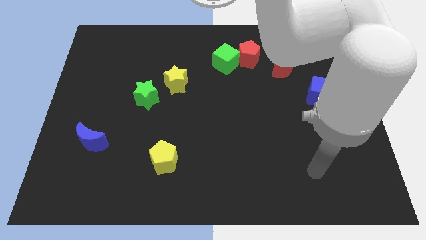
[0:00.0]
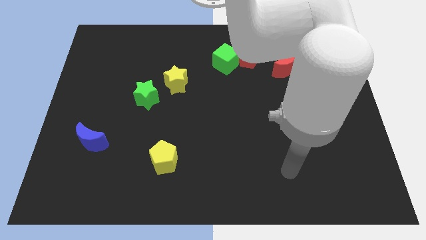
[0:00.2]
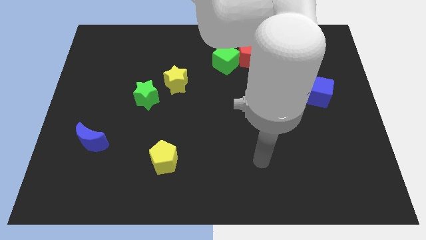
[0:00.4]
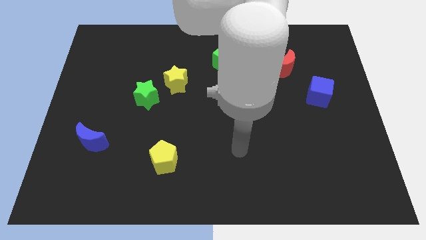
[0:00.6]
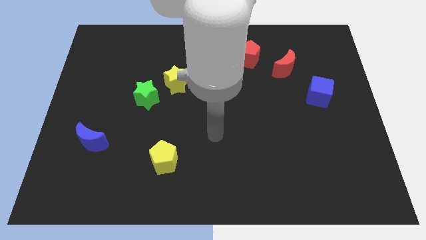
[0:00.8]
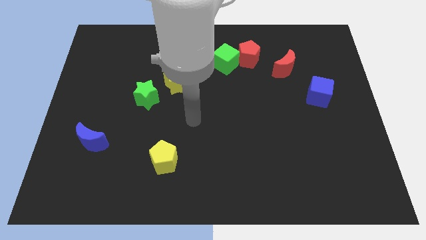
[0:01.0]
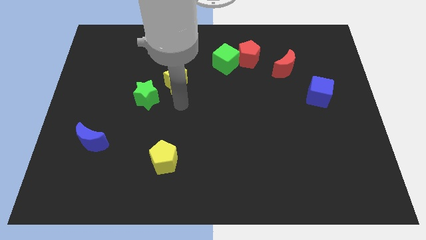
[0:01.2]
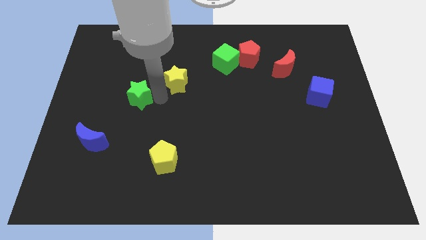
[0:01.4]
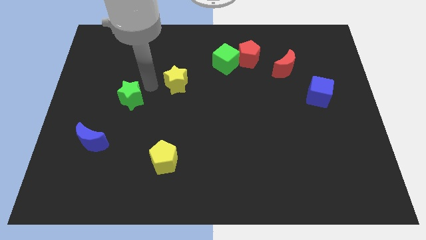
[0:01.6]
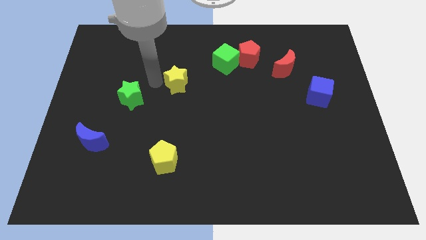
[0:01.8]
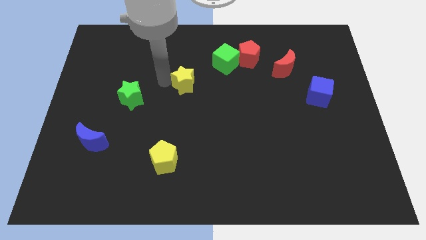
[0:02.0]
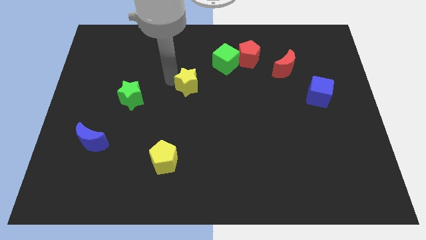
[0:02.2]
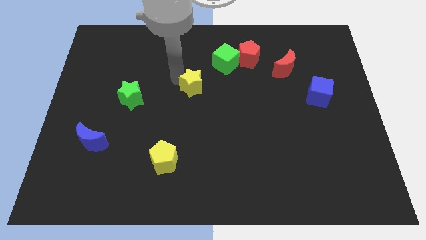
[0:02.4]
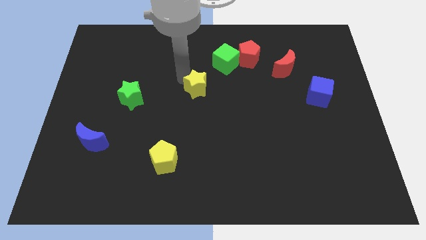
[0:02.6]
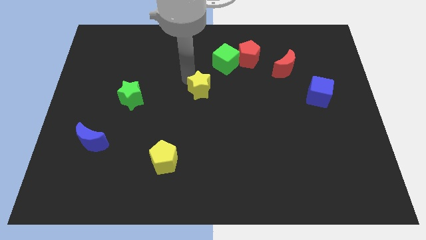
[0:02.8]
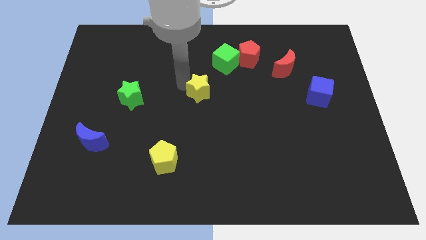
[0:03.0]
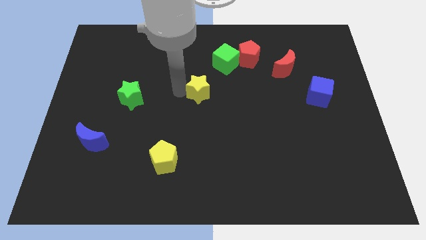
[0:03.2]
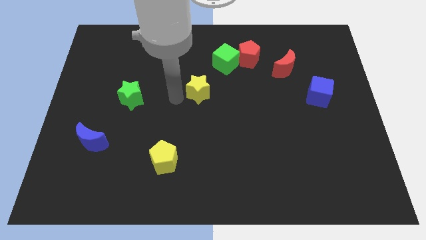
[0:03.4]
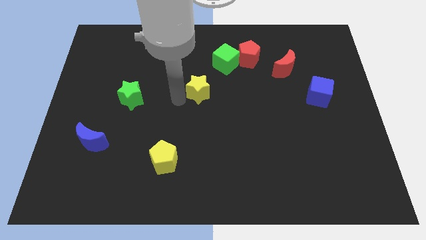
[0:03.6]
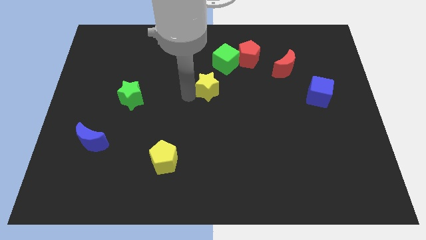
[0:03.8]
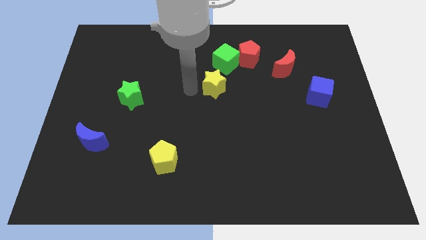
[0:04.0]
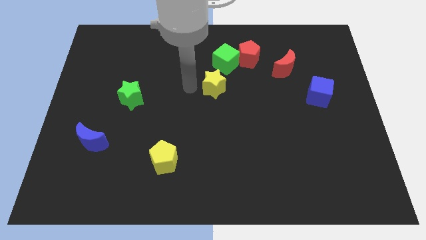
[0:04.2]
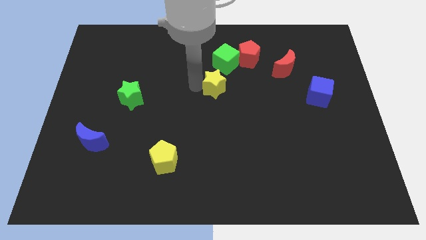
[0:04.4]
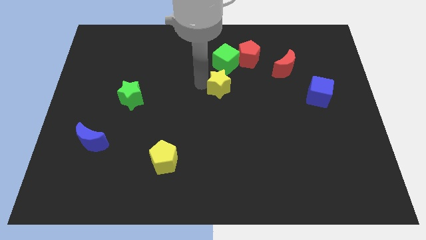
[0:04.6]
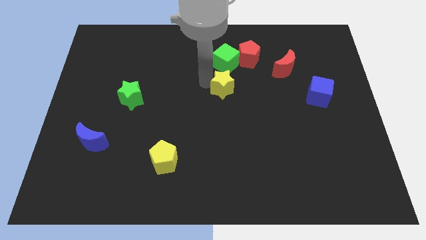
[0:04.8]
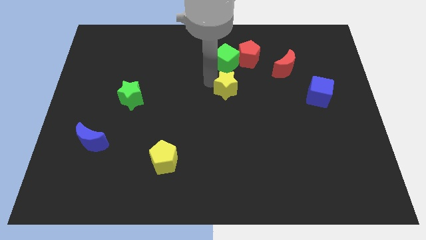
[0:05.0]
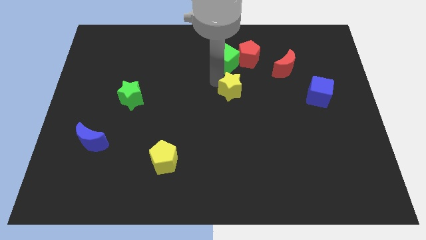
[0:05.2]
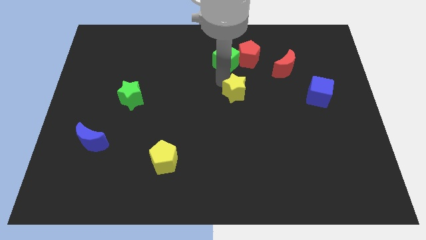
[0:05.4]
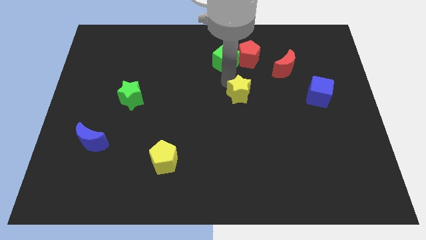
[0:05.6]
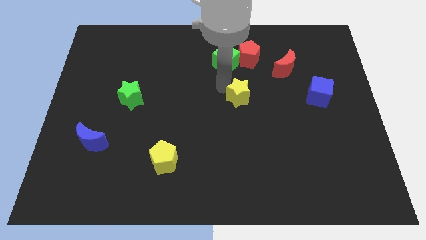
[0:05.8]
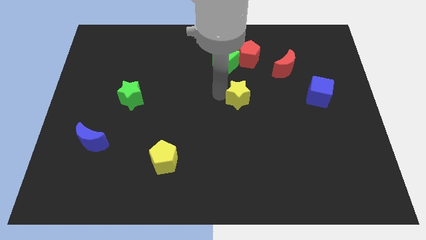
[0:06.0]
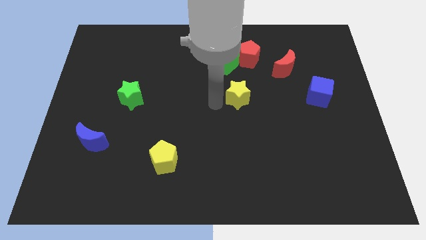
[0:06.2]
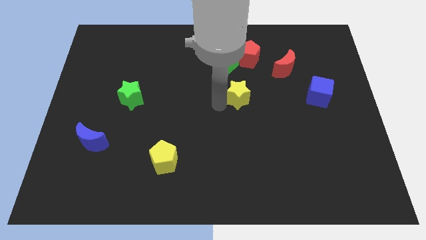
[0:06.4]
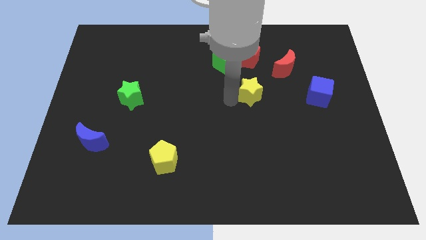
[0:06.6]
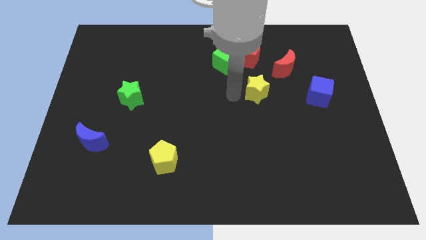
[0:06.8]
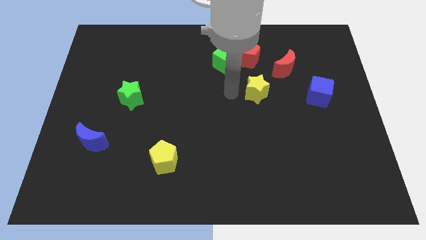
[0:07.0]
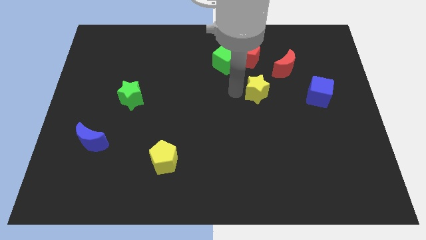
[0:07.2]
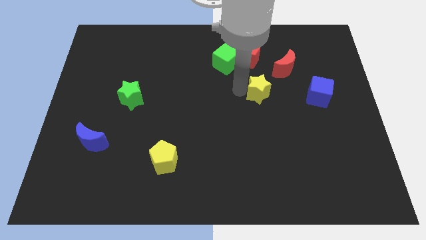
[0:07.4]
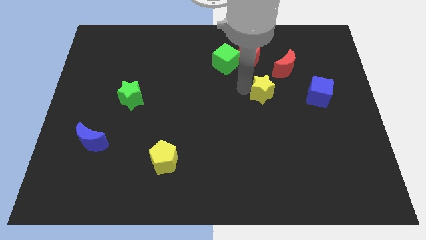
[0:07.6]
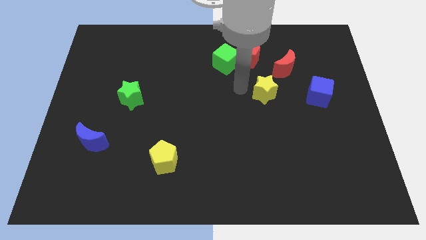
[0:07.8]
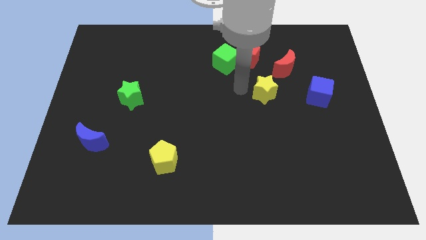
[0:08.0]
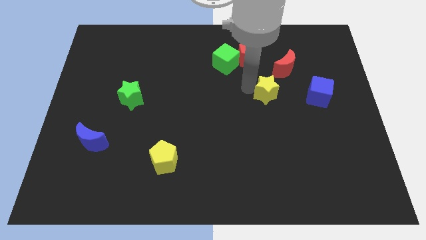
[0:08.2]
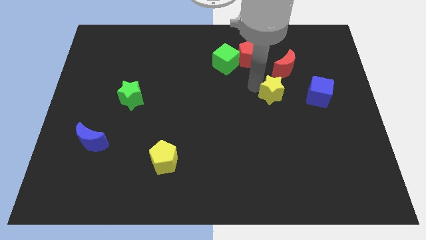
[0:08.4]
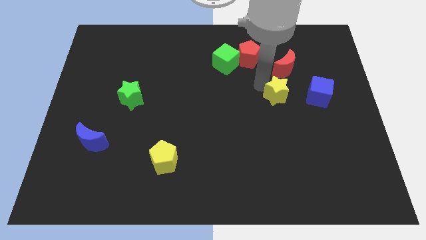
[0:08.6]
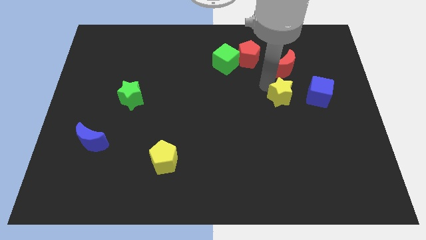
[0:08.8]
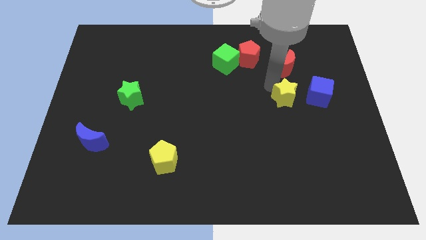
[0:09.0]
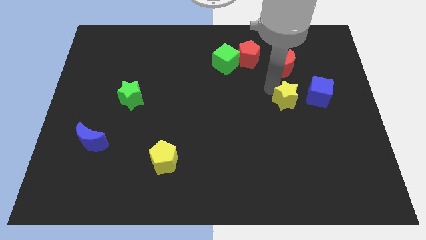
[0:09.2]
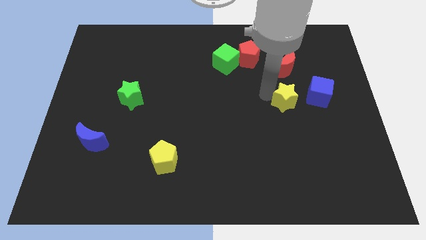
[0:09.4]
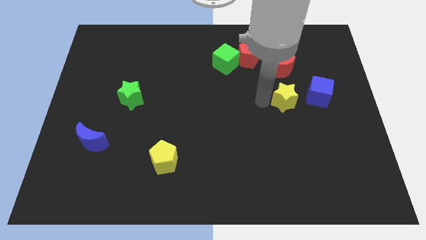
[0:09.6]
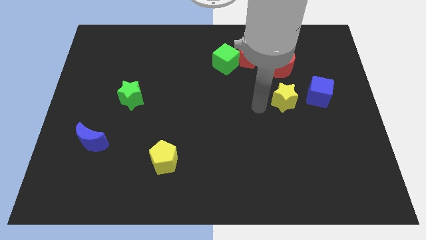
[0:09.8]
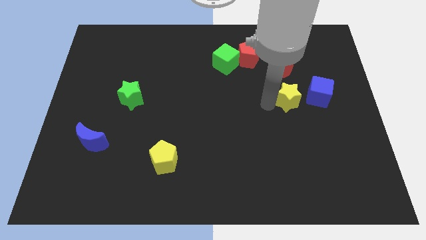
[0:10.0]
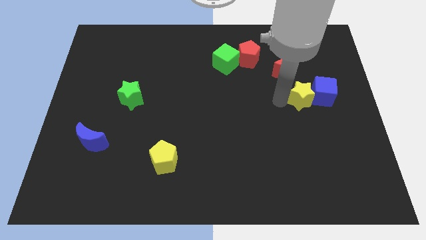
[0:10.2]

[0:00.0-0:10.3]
push the yellow star close to the blue cube

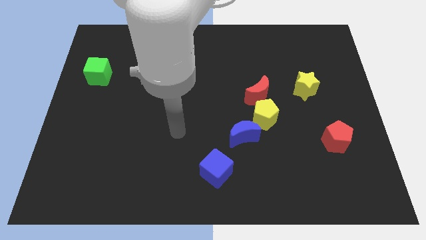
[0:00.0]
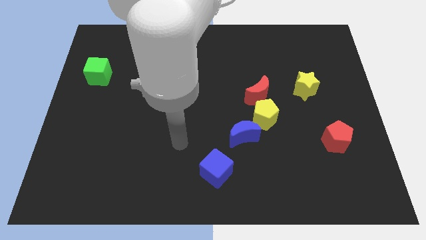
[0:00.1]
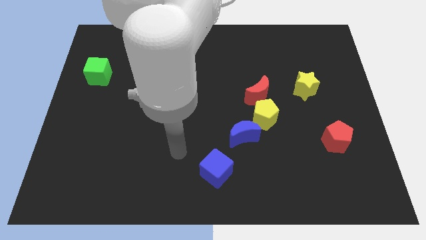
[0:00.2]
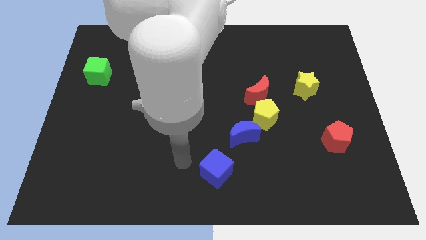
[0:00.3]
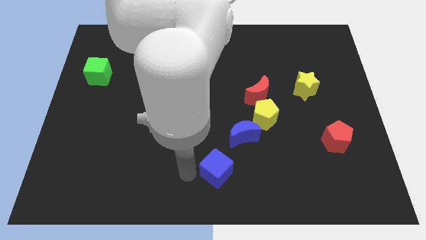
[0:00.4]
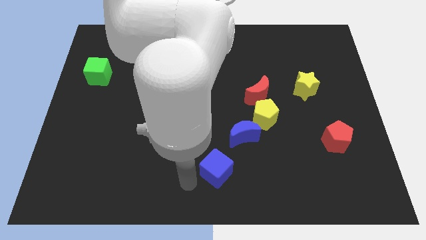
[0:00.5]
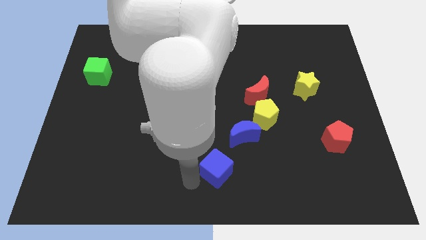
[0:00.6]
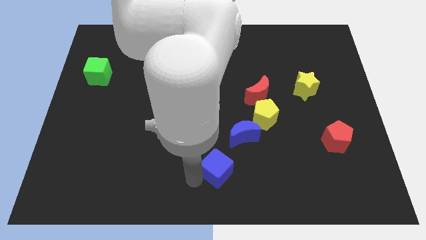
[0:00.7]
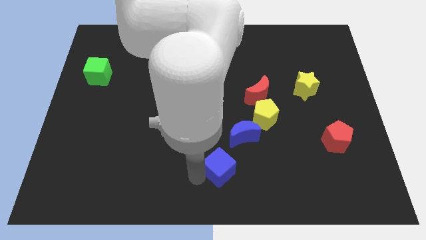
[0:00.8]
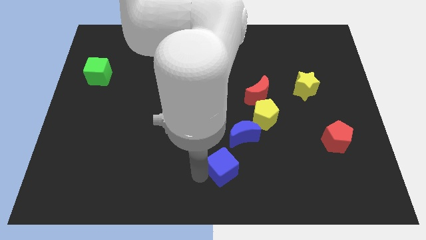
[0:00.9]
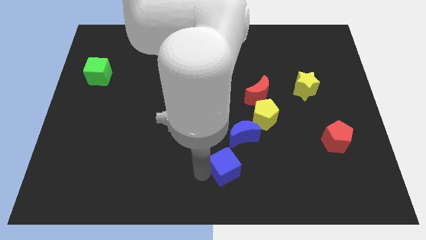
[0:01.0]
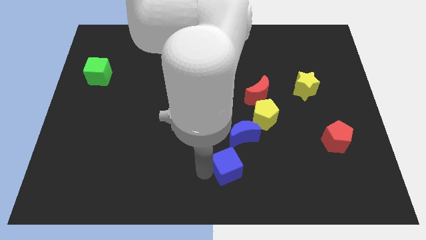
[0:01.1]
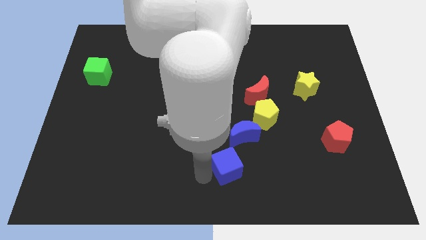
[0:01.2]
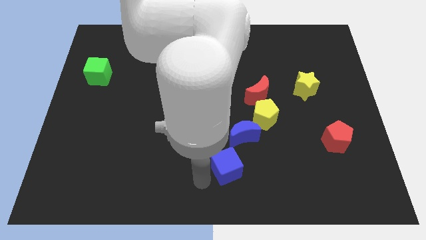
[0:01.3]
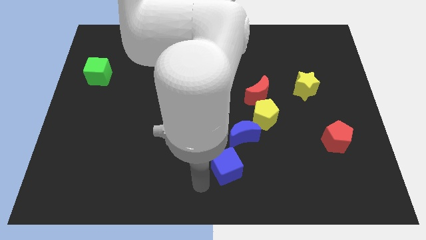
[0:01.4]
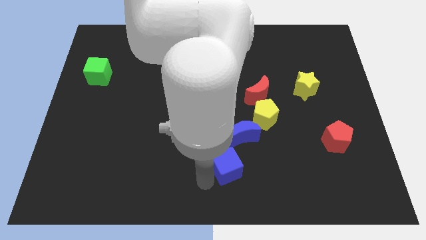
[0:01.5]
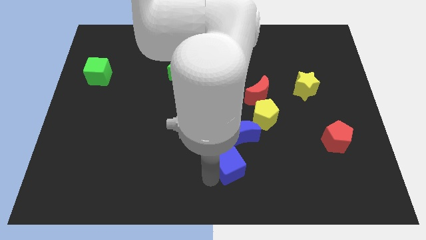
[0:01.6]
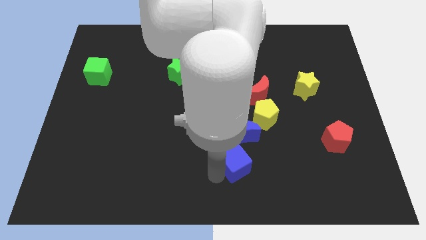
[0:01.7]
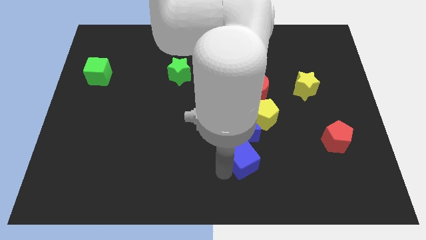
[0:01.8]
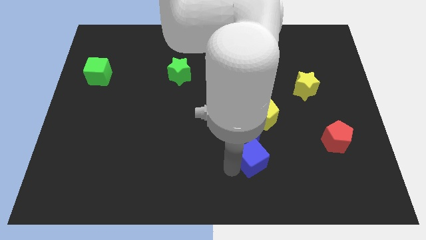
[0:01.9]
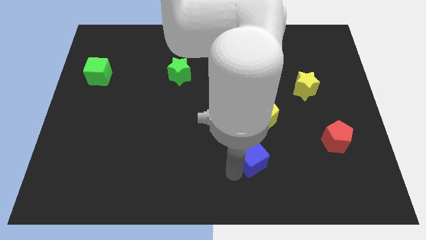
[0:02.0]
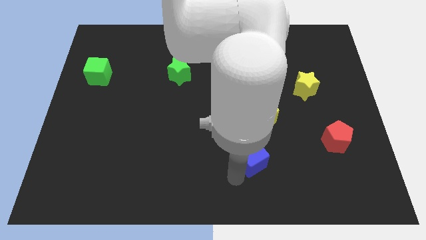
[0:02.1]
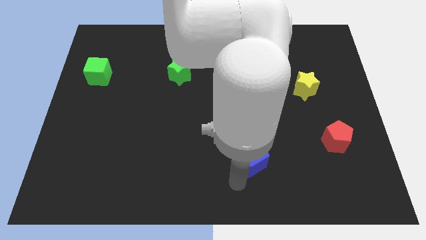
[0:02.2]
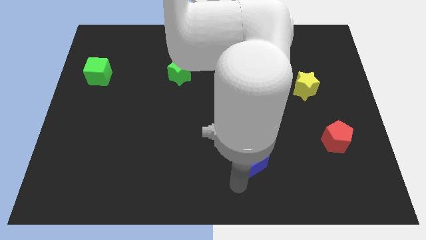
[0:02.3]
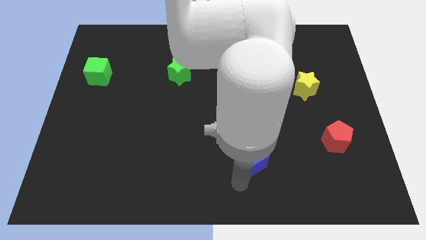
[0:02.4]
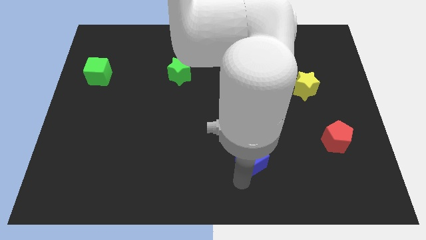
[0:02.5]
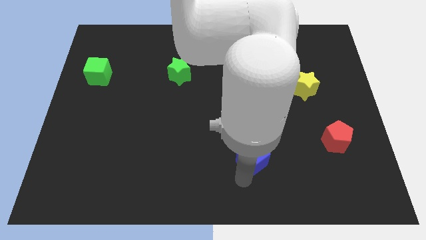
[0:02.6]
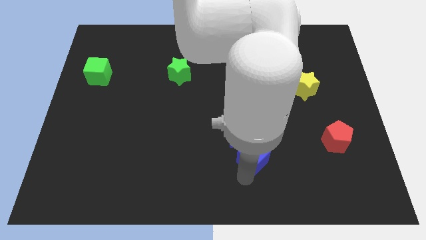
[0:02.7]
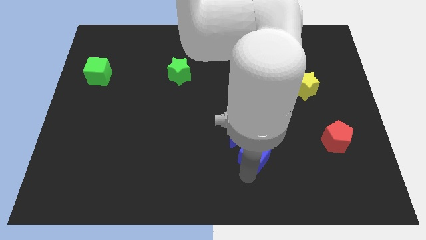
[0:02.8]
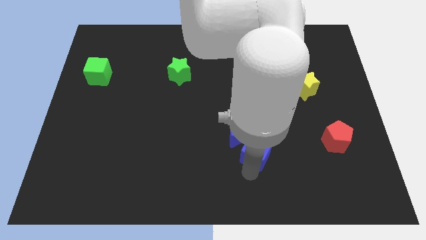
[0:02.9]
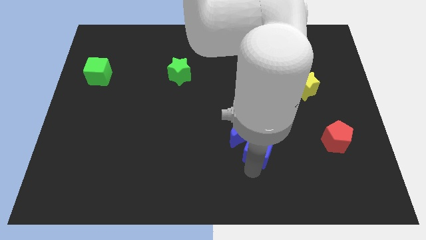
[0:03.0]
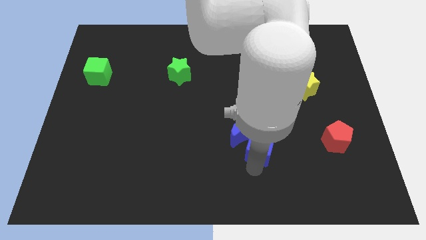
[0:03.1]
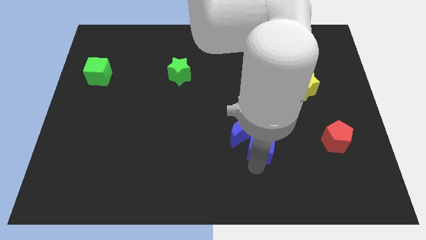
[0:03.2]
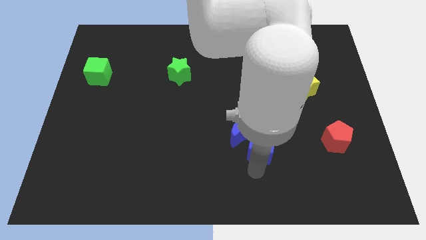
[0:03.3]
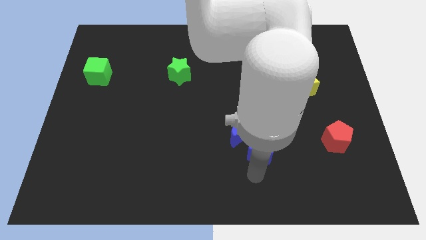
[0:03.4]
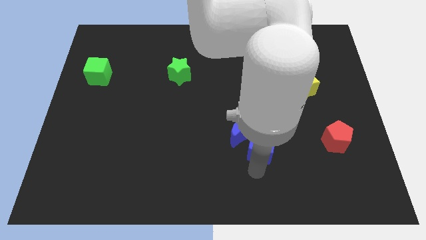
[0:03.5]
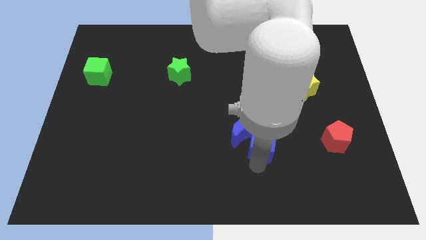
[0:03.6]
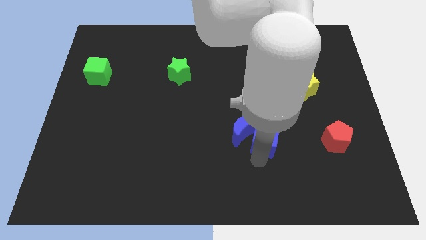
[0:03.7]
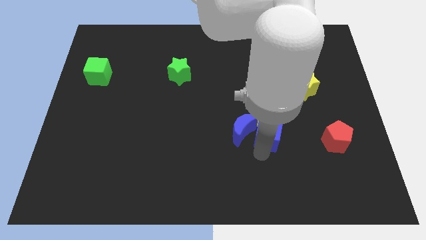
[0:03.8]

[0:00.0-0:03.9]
slide the blue cube next to the yellow pentagon
